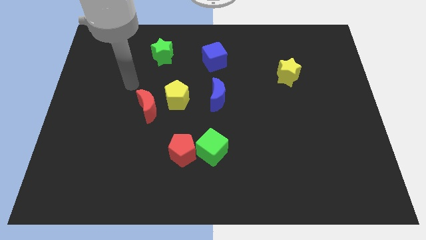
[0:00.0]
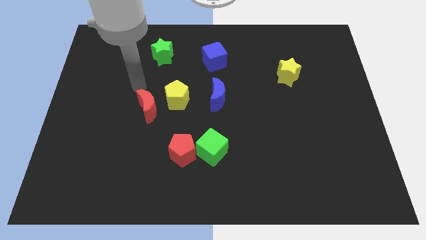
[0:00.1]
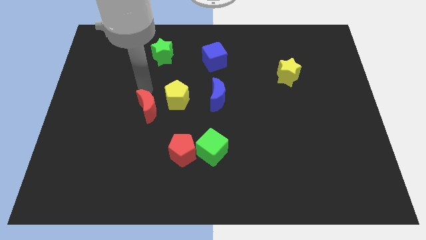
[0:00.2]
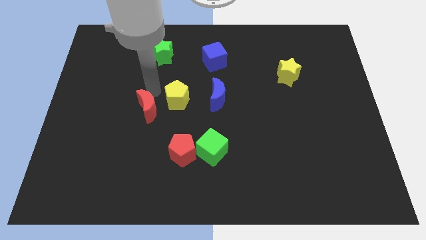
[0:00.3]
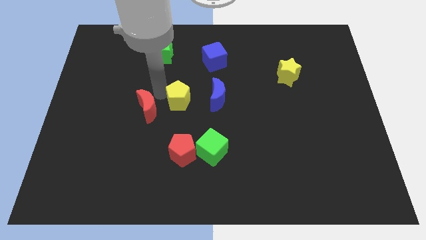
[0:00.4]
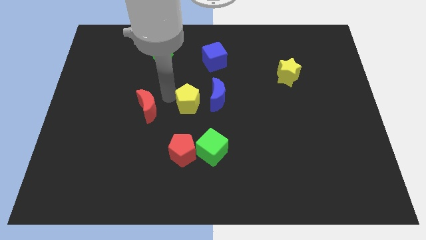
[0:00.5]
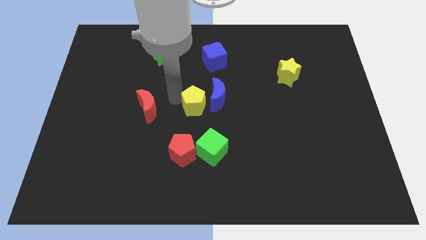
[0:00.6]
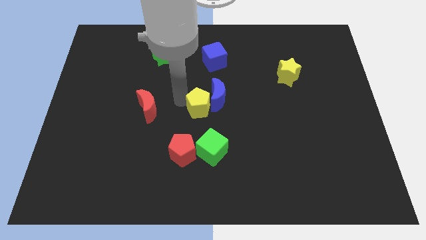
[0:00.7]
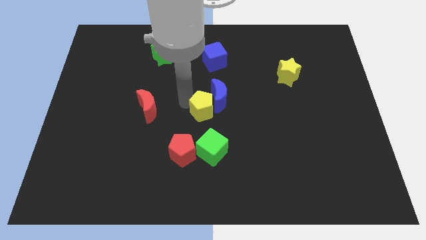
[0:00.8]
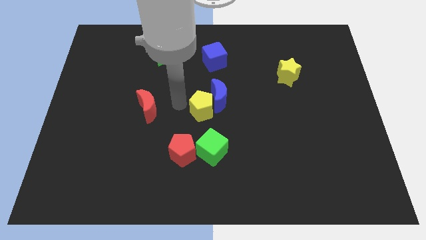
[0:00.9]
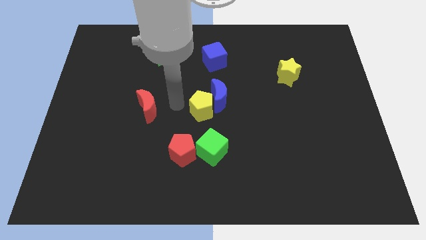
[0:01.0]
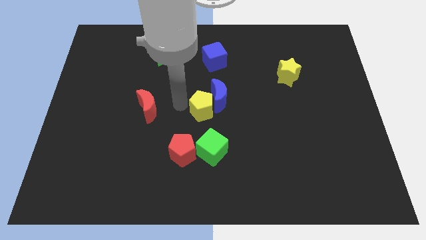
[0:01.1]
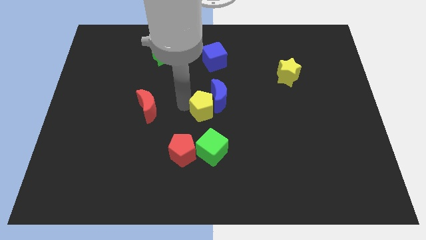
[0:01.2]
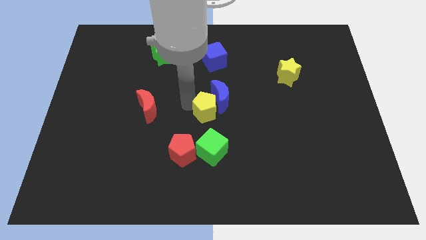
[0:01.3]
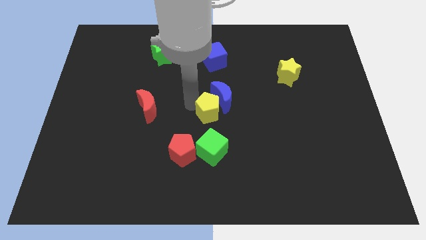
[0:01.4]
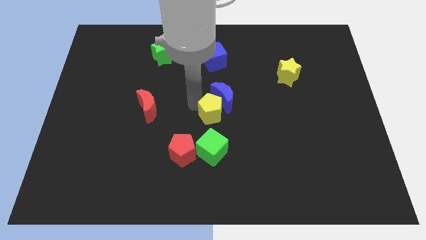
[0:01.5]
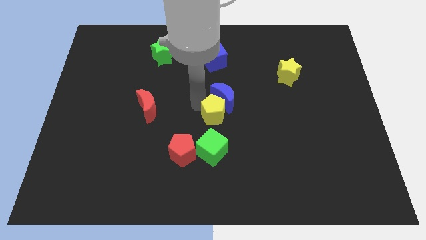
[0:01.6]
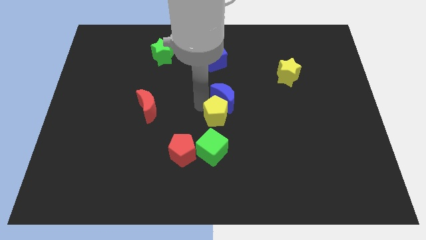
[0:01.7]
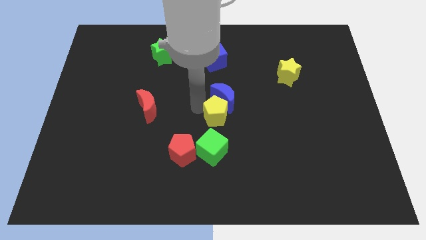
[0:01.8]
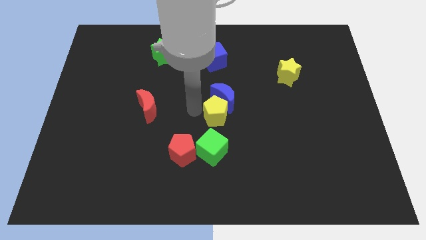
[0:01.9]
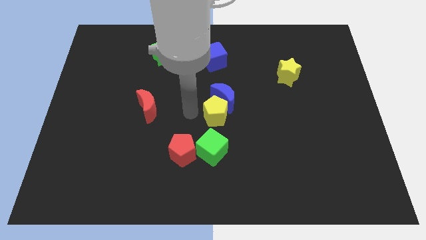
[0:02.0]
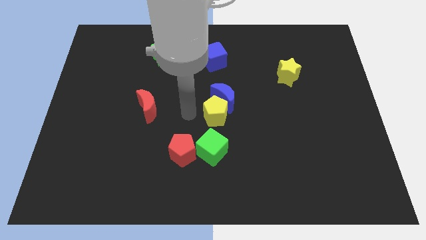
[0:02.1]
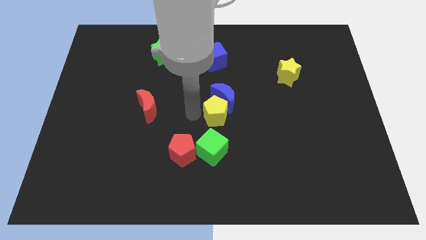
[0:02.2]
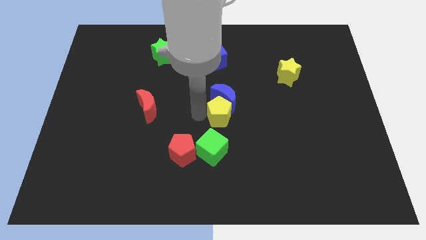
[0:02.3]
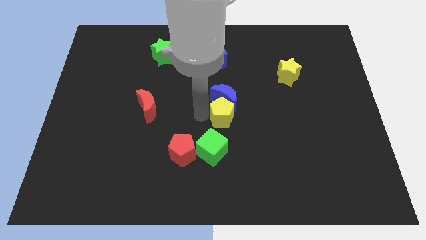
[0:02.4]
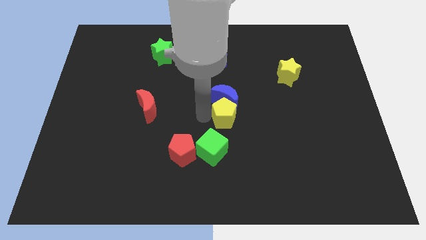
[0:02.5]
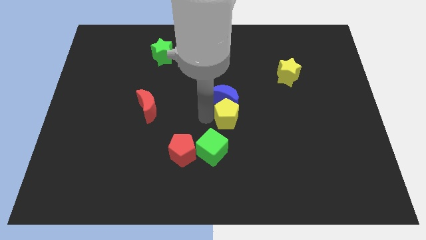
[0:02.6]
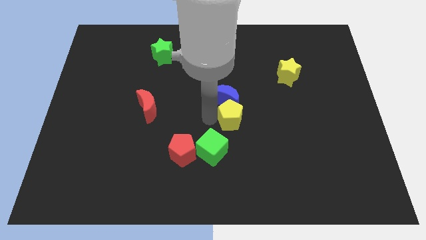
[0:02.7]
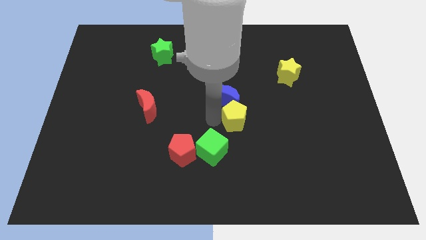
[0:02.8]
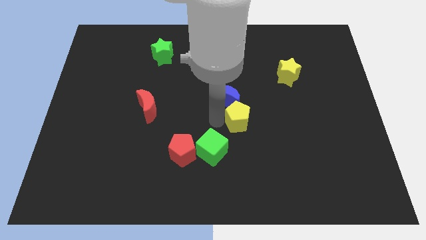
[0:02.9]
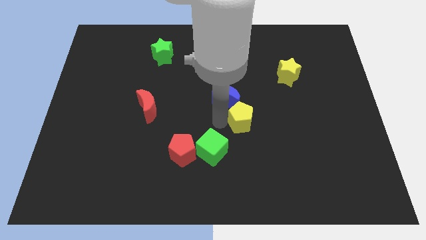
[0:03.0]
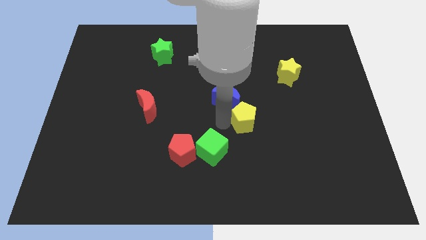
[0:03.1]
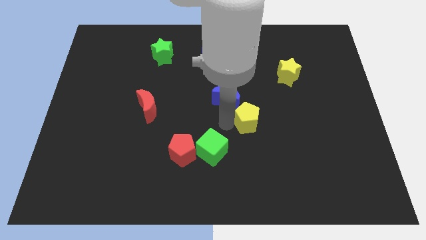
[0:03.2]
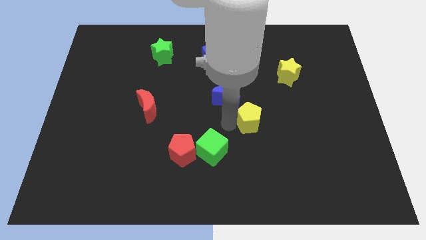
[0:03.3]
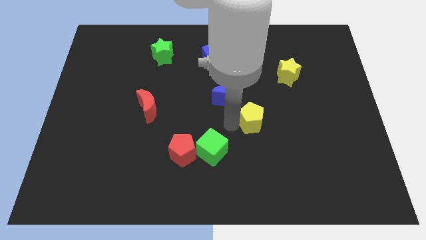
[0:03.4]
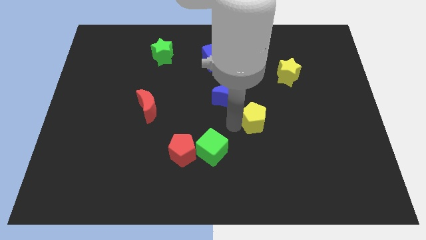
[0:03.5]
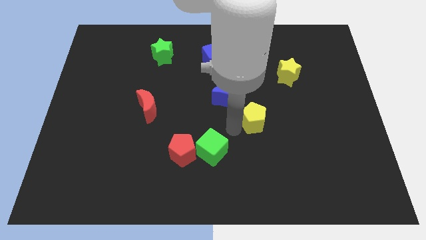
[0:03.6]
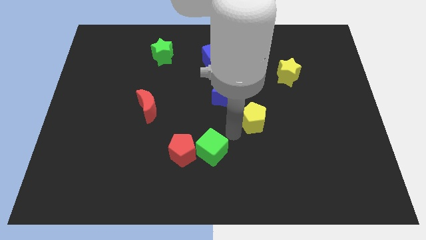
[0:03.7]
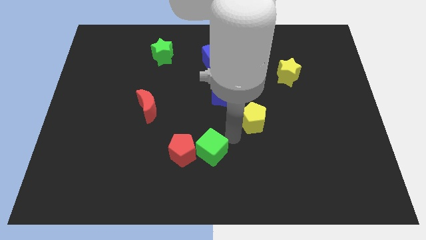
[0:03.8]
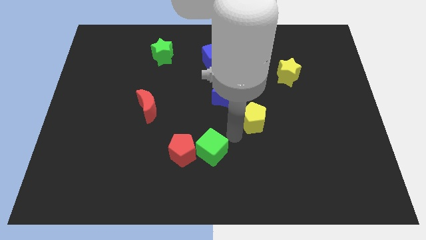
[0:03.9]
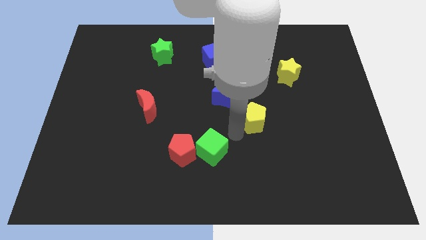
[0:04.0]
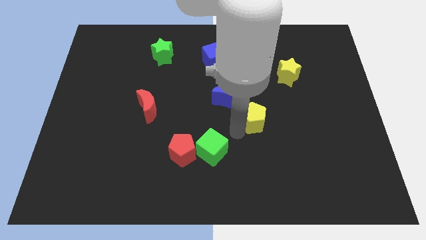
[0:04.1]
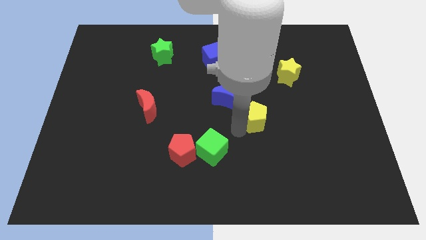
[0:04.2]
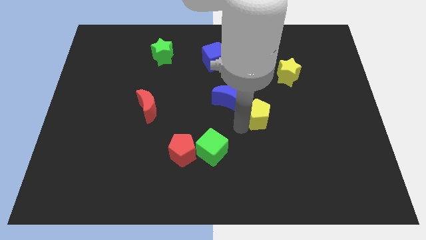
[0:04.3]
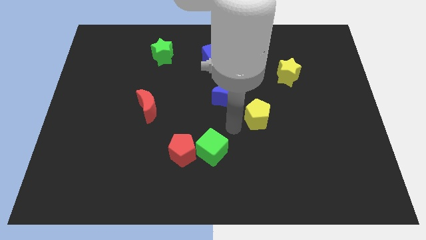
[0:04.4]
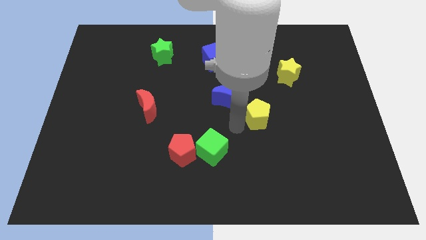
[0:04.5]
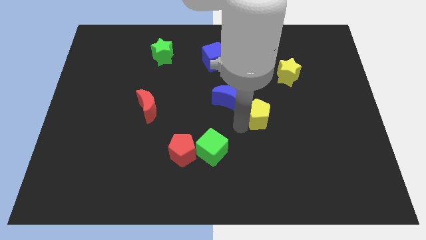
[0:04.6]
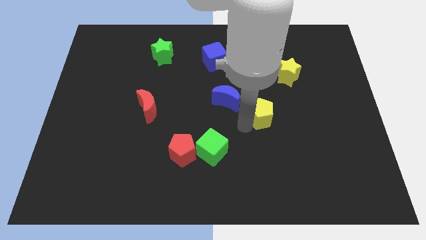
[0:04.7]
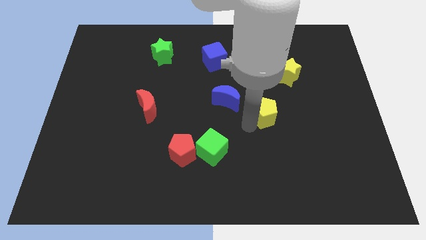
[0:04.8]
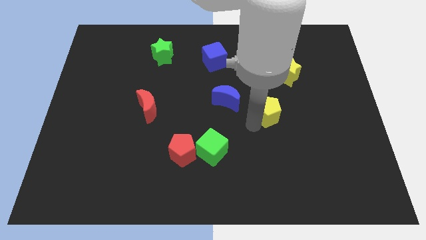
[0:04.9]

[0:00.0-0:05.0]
slide the yellow pentagon to the right

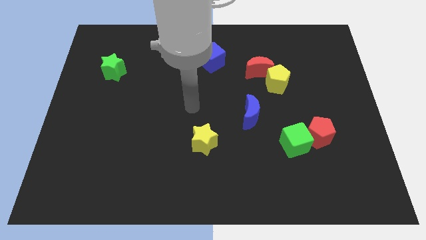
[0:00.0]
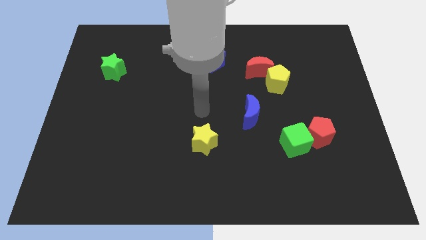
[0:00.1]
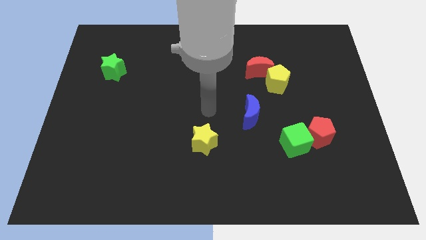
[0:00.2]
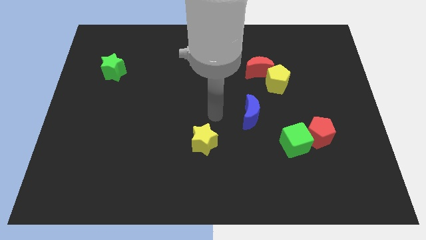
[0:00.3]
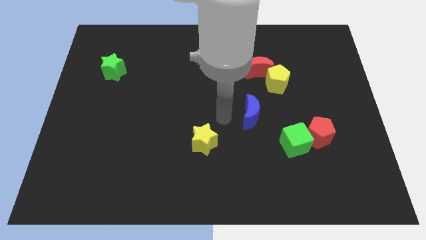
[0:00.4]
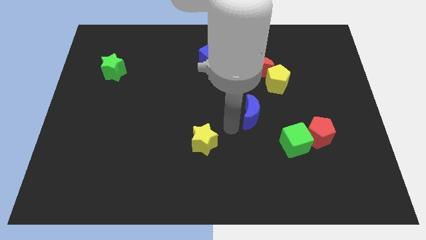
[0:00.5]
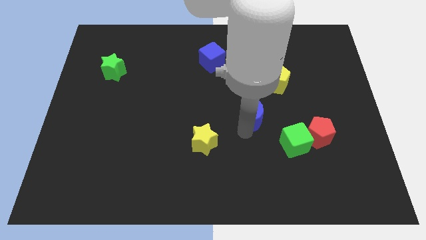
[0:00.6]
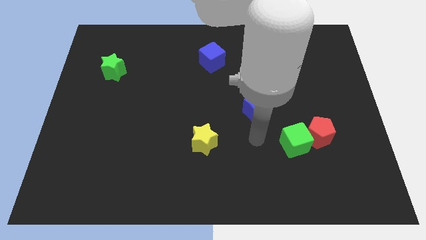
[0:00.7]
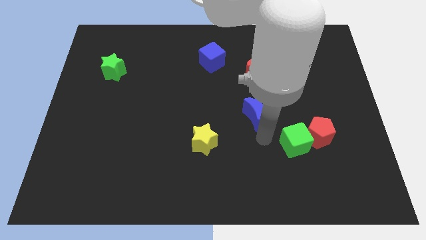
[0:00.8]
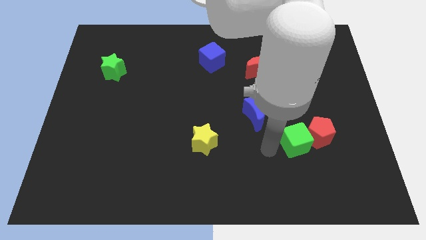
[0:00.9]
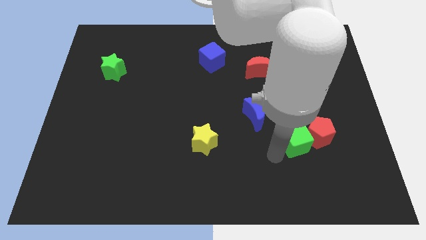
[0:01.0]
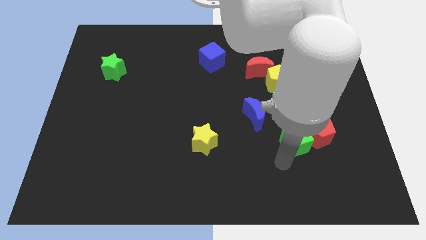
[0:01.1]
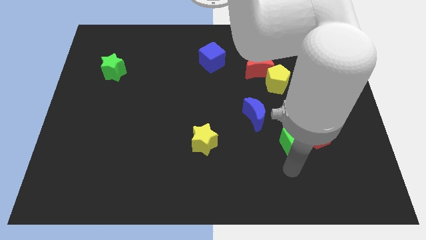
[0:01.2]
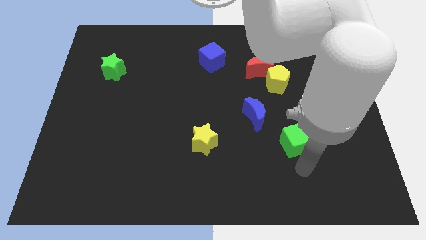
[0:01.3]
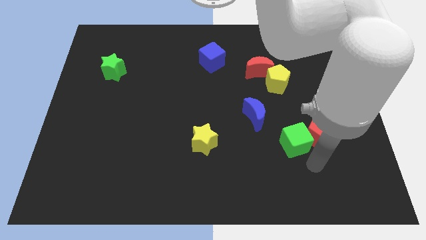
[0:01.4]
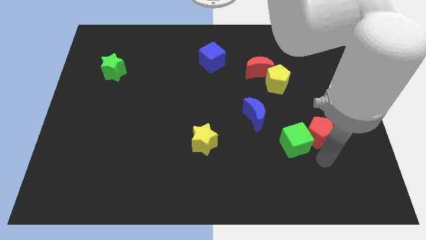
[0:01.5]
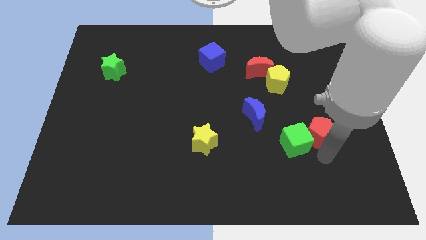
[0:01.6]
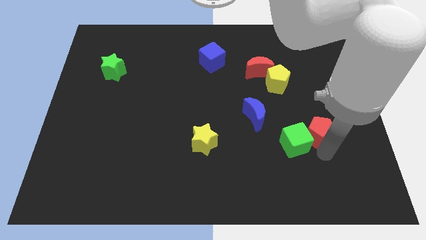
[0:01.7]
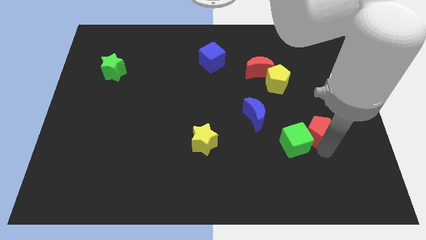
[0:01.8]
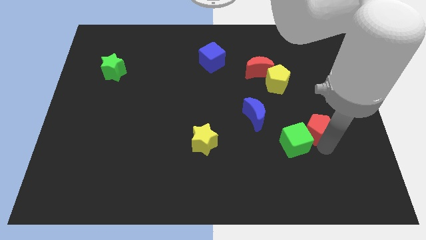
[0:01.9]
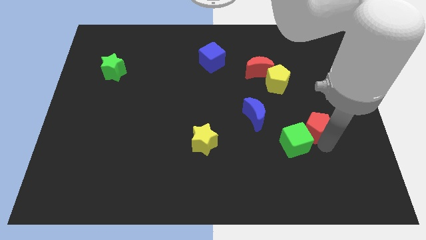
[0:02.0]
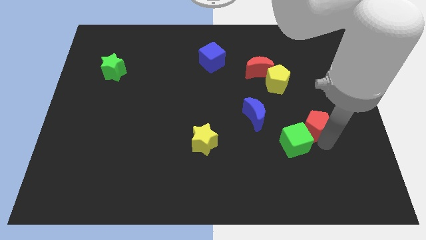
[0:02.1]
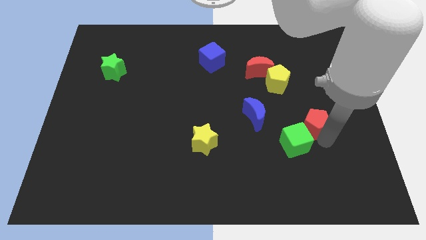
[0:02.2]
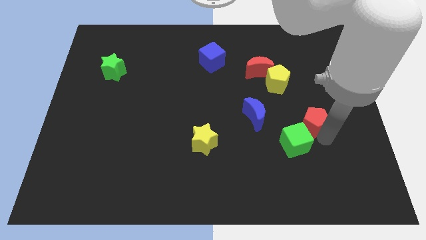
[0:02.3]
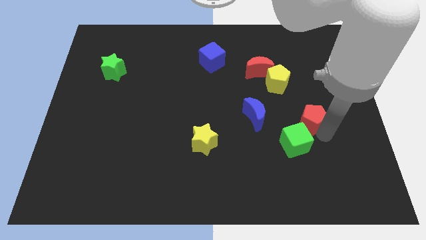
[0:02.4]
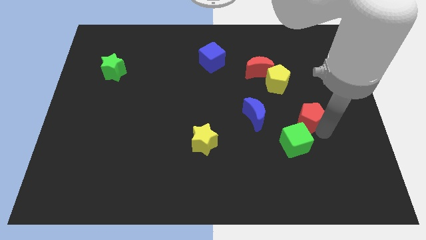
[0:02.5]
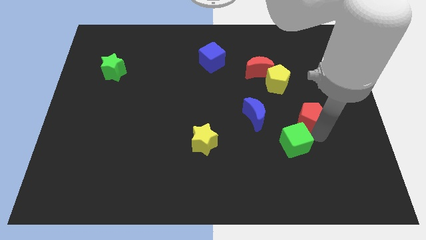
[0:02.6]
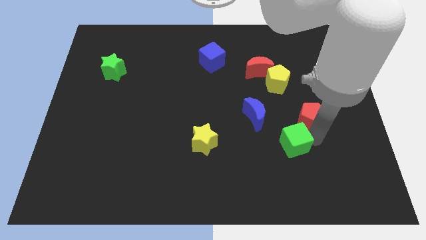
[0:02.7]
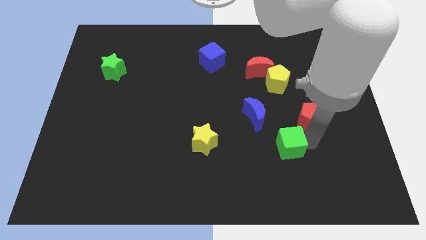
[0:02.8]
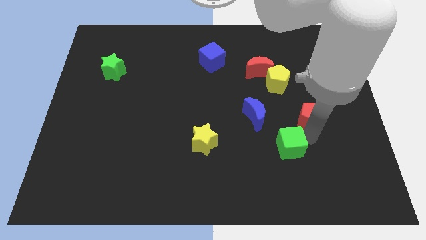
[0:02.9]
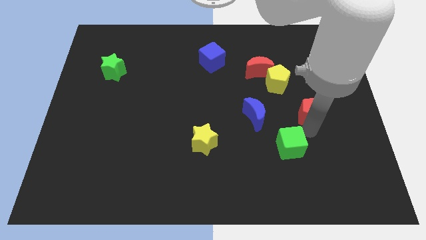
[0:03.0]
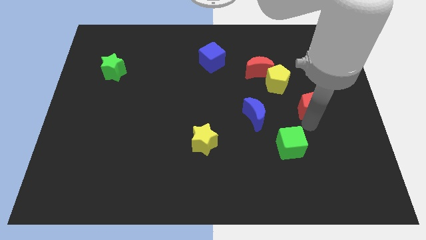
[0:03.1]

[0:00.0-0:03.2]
slide the red pentagon up slightly
